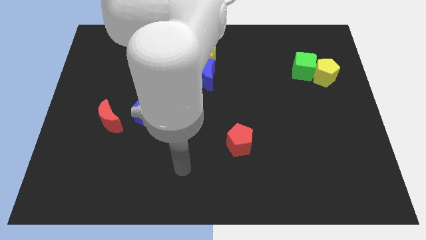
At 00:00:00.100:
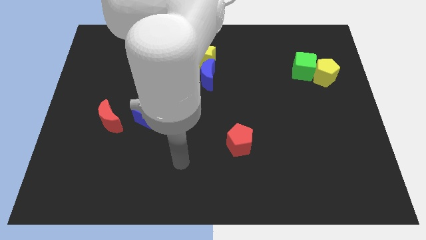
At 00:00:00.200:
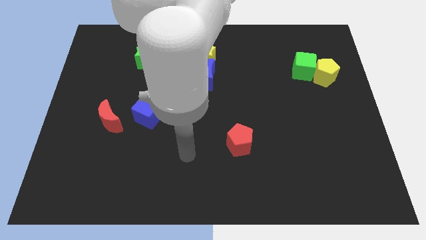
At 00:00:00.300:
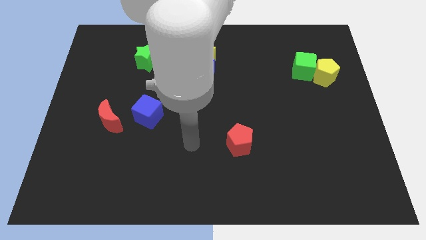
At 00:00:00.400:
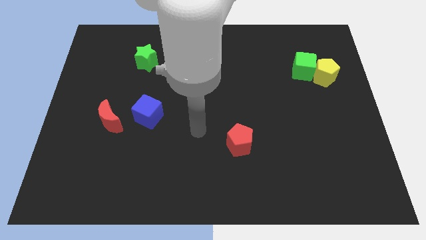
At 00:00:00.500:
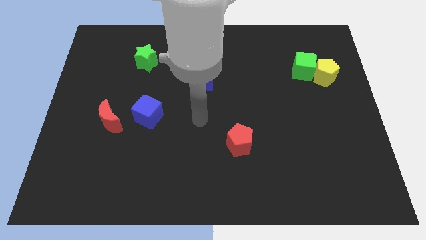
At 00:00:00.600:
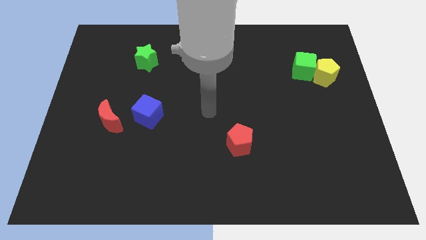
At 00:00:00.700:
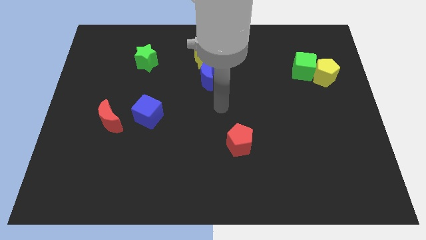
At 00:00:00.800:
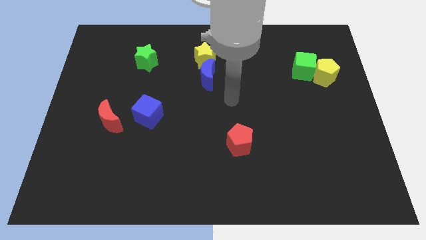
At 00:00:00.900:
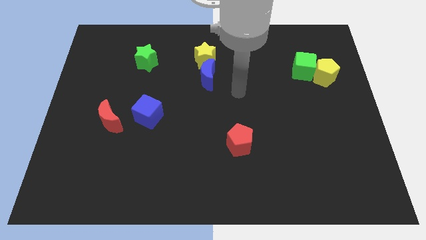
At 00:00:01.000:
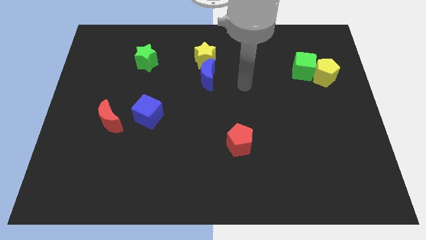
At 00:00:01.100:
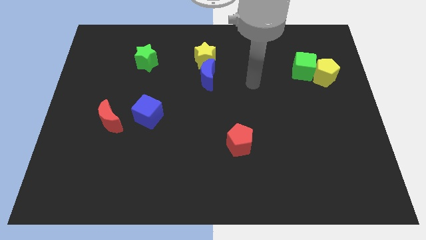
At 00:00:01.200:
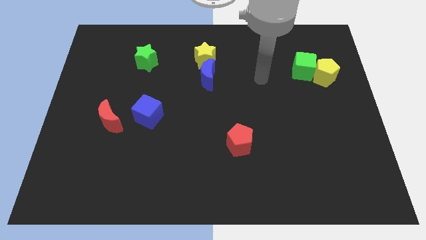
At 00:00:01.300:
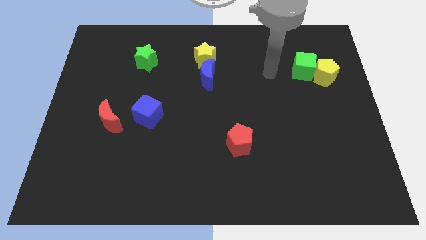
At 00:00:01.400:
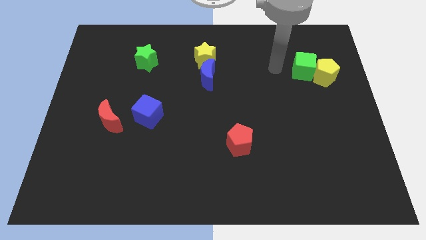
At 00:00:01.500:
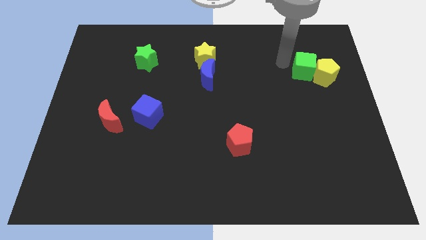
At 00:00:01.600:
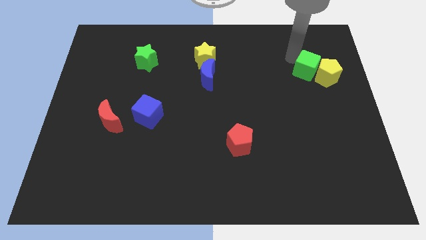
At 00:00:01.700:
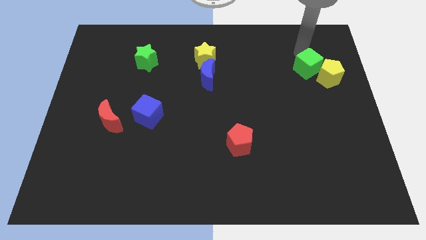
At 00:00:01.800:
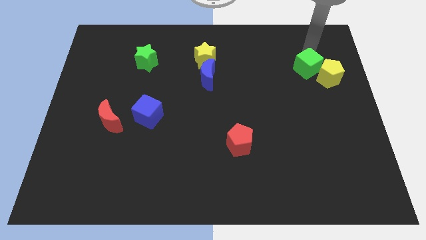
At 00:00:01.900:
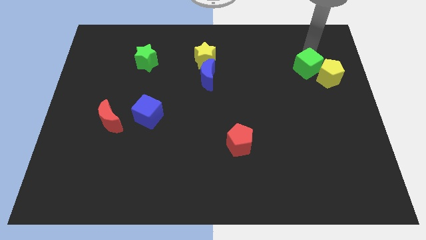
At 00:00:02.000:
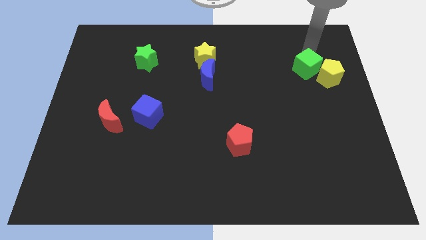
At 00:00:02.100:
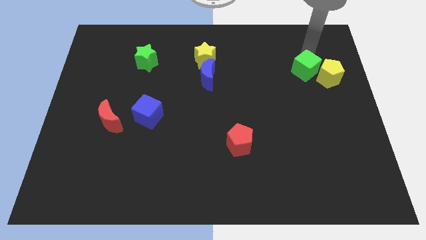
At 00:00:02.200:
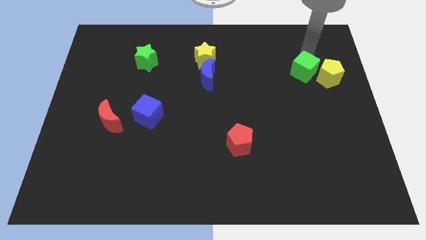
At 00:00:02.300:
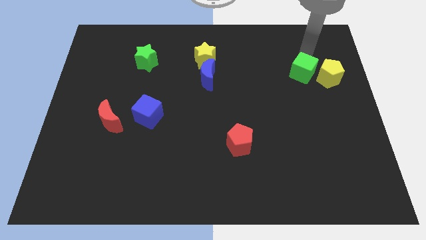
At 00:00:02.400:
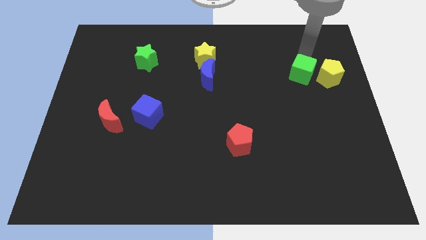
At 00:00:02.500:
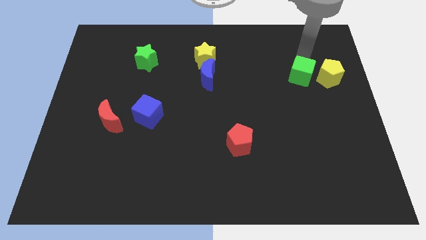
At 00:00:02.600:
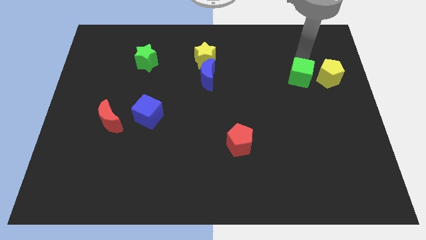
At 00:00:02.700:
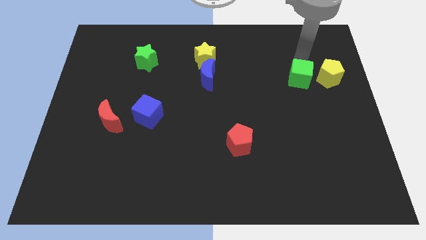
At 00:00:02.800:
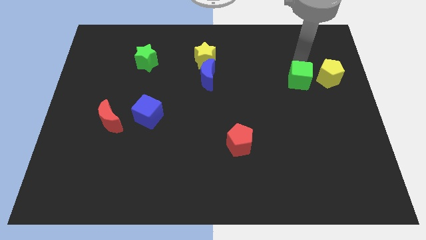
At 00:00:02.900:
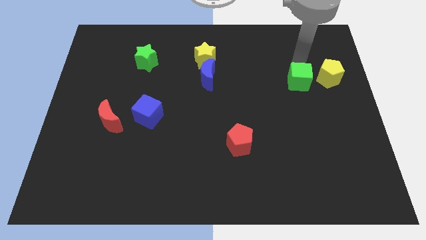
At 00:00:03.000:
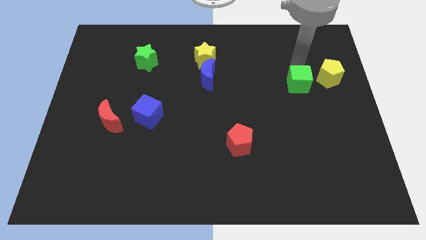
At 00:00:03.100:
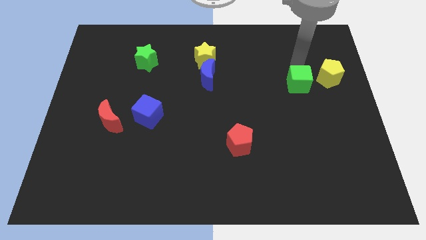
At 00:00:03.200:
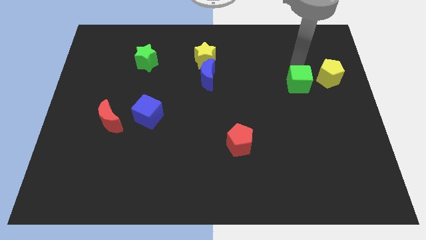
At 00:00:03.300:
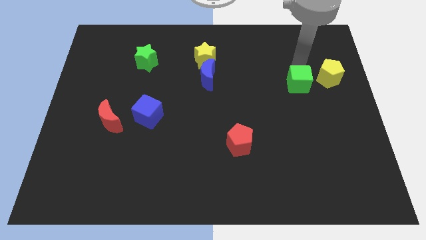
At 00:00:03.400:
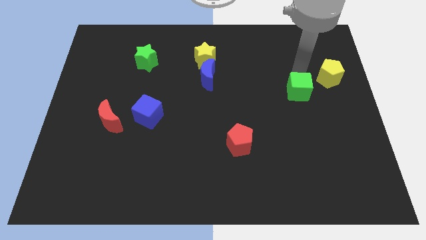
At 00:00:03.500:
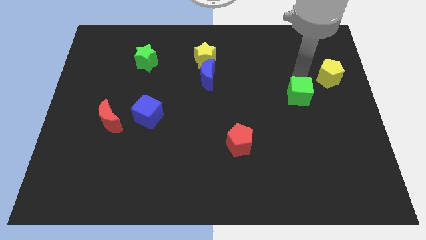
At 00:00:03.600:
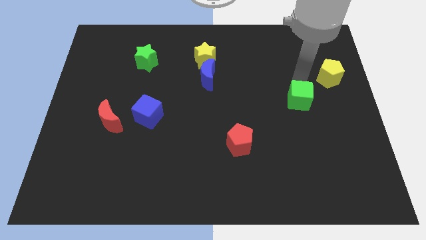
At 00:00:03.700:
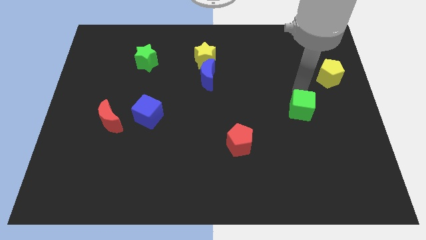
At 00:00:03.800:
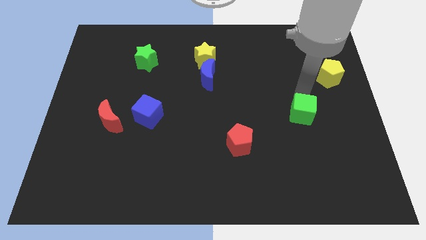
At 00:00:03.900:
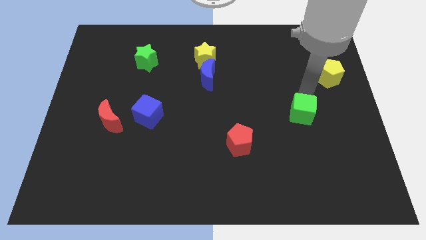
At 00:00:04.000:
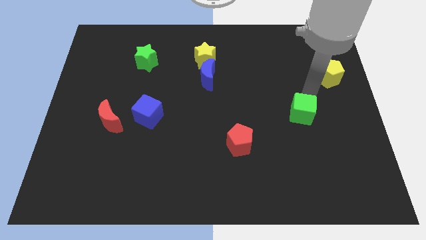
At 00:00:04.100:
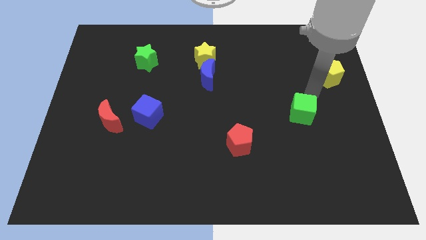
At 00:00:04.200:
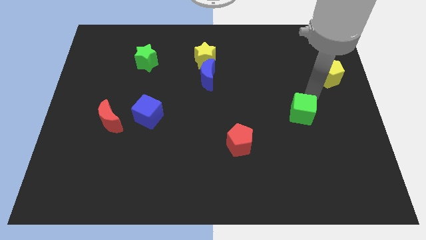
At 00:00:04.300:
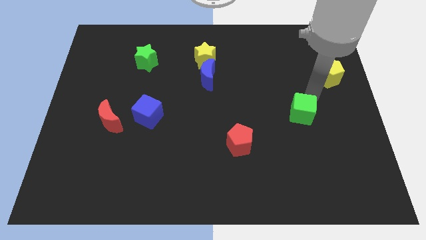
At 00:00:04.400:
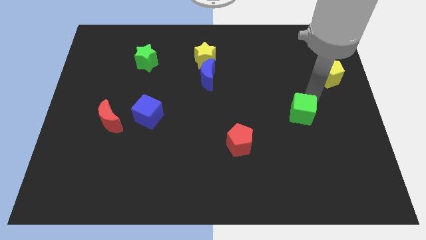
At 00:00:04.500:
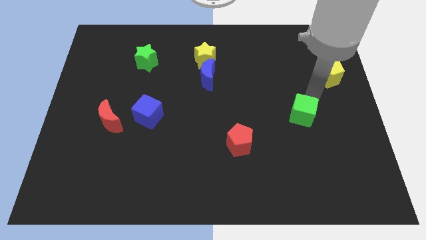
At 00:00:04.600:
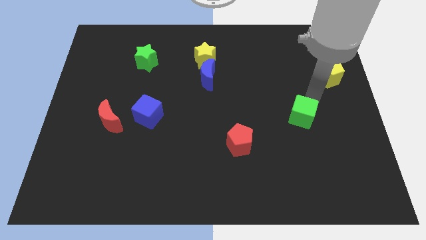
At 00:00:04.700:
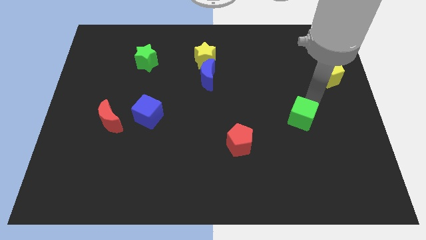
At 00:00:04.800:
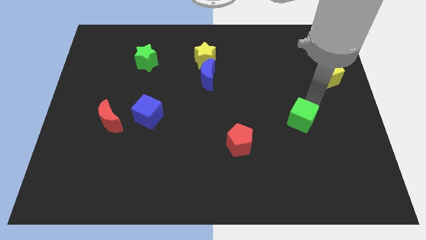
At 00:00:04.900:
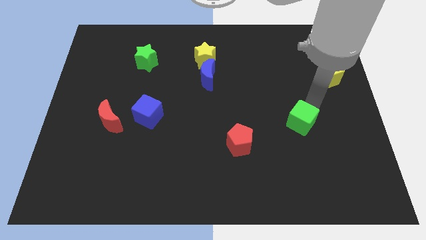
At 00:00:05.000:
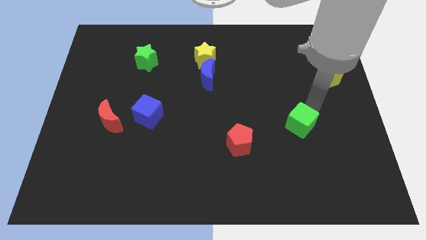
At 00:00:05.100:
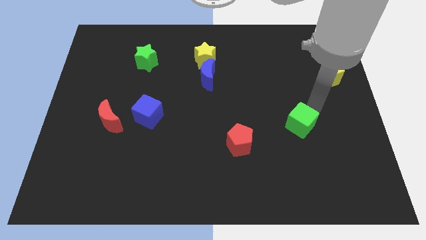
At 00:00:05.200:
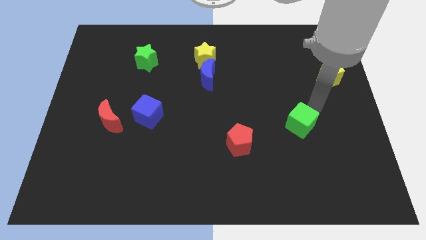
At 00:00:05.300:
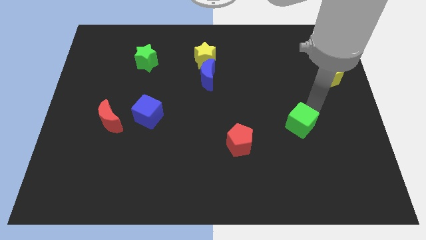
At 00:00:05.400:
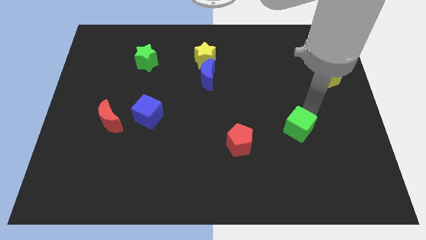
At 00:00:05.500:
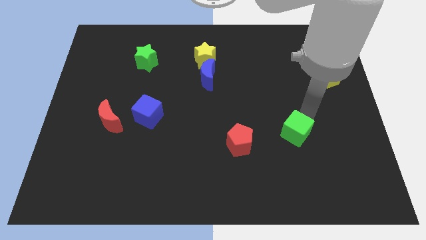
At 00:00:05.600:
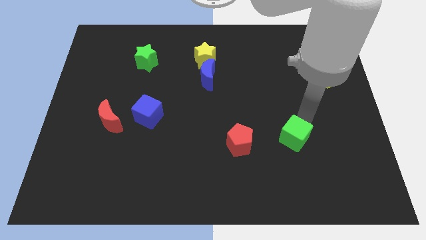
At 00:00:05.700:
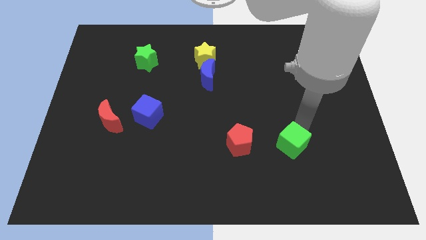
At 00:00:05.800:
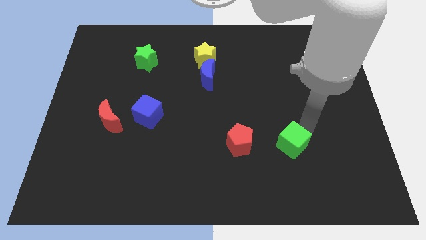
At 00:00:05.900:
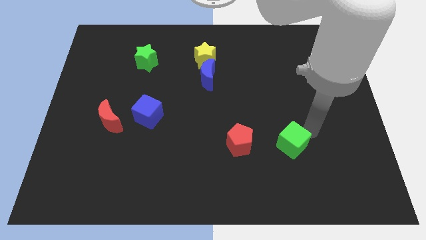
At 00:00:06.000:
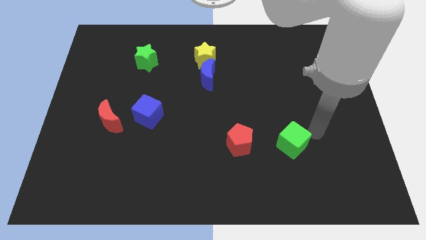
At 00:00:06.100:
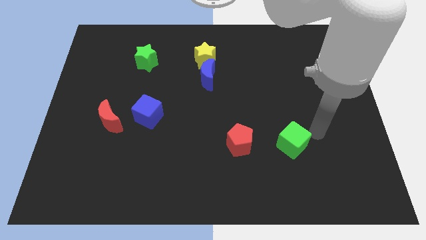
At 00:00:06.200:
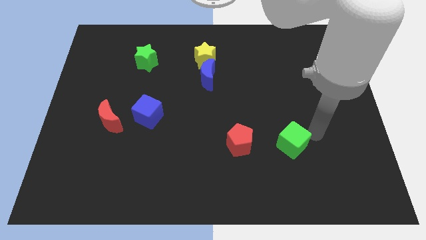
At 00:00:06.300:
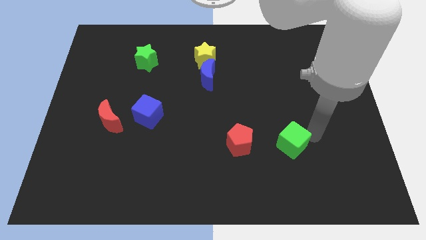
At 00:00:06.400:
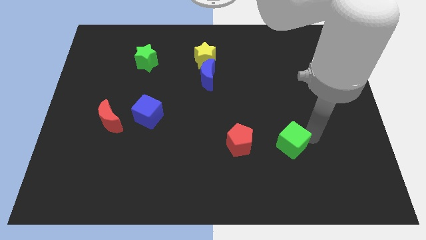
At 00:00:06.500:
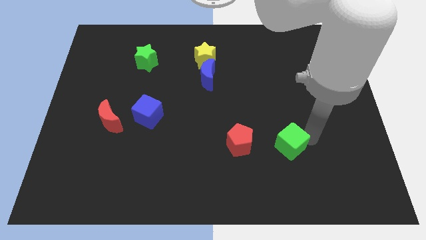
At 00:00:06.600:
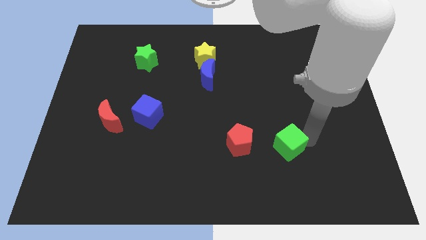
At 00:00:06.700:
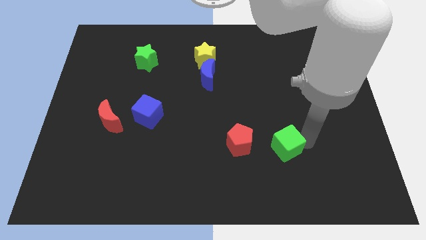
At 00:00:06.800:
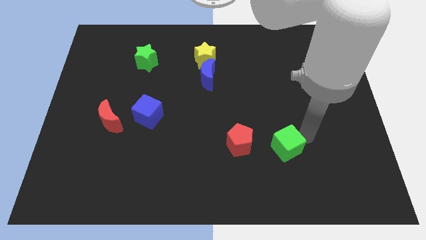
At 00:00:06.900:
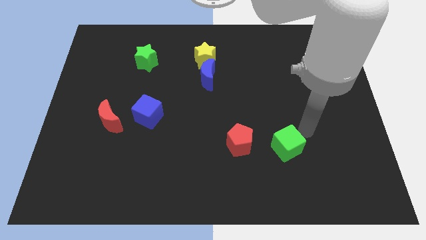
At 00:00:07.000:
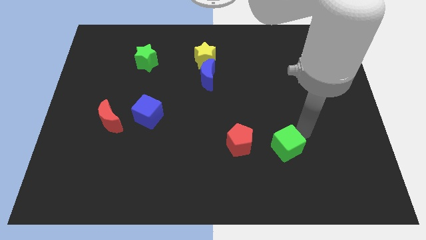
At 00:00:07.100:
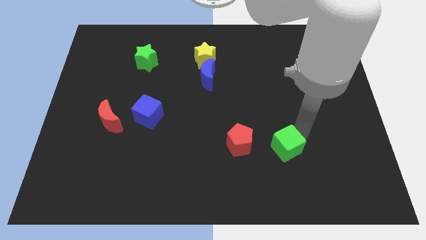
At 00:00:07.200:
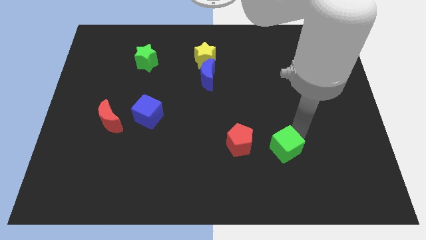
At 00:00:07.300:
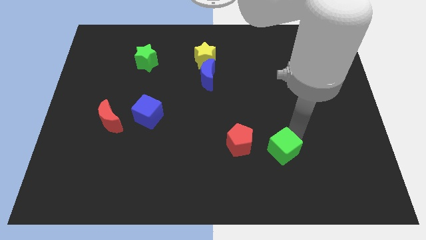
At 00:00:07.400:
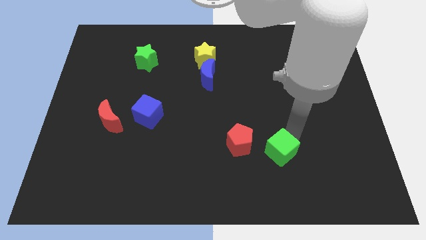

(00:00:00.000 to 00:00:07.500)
push the green cube to the bottom right of the red pentagon
